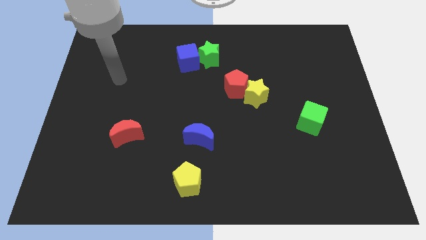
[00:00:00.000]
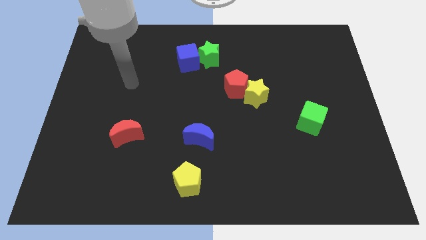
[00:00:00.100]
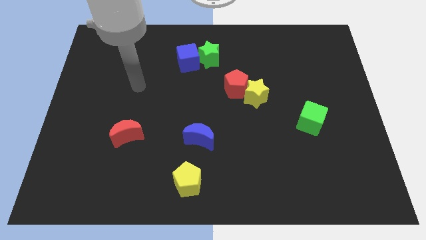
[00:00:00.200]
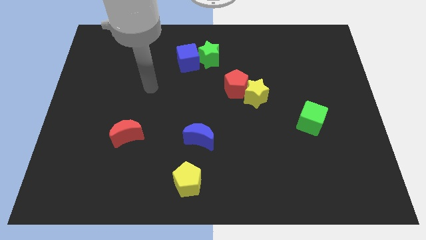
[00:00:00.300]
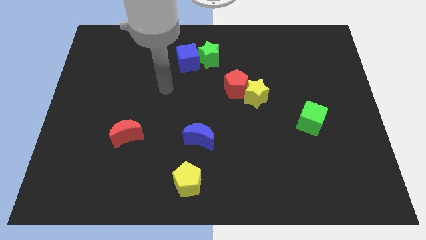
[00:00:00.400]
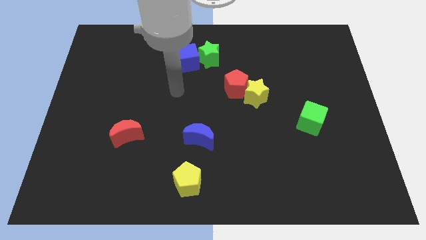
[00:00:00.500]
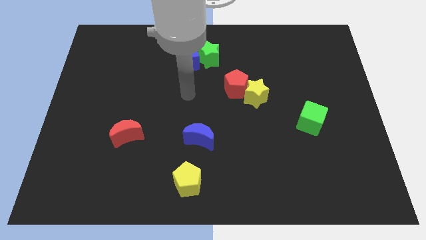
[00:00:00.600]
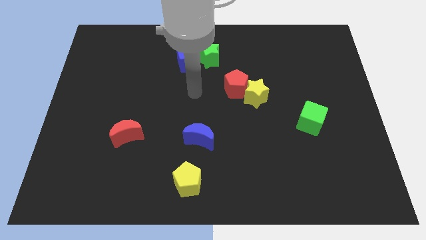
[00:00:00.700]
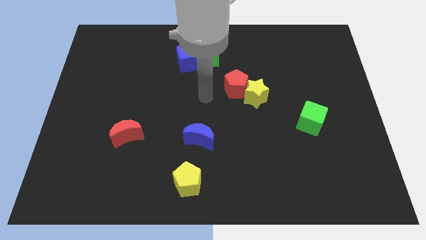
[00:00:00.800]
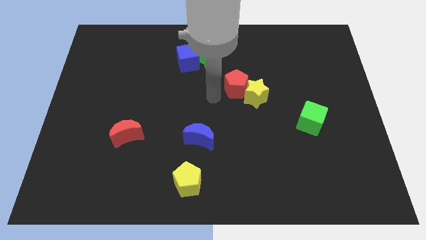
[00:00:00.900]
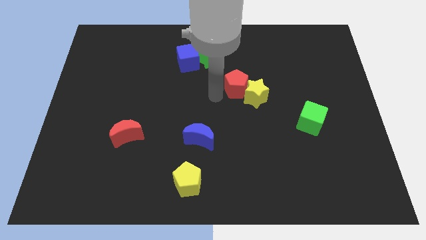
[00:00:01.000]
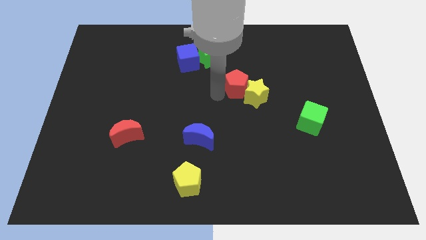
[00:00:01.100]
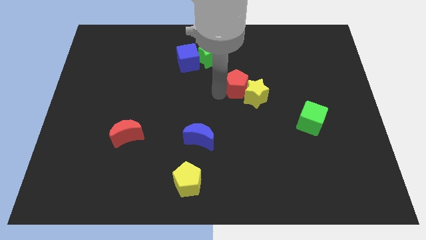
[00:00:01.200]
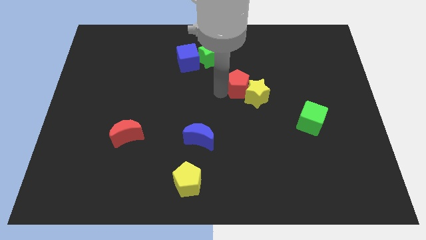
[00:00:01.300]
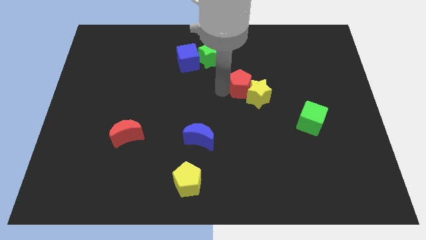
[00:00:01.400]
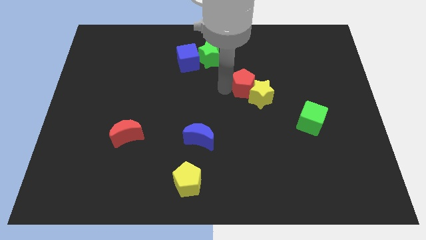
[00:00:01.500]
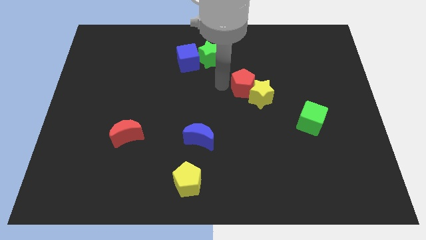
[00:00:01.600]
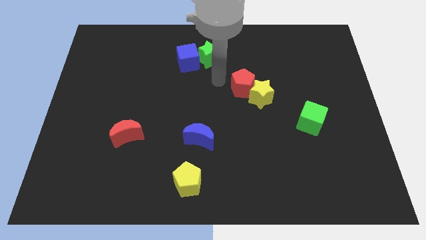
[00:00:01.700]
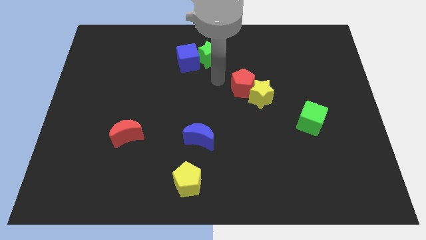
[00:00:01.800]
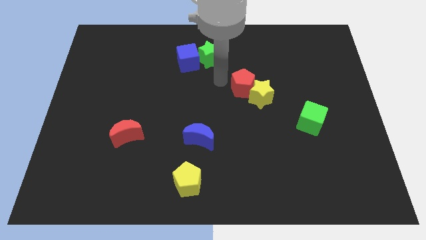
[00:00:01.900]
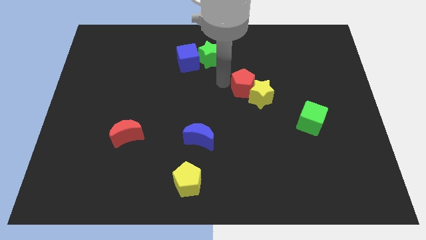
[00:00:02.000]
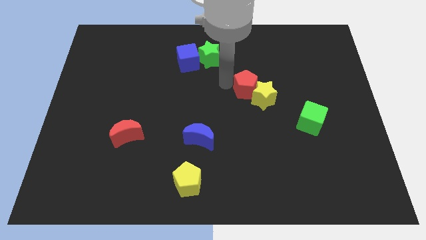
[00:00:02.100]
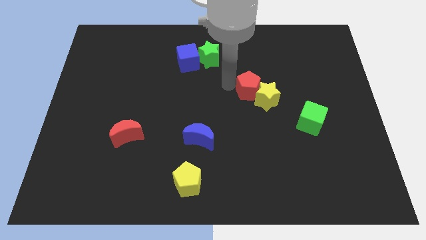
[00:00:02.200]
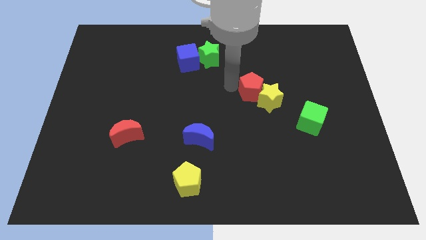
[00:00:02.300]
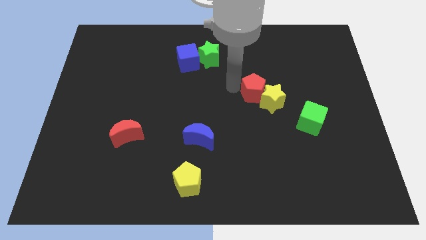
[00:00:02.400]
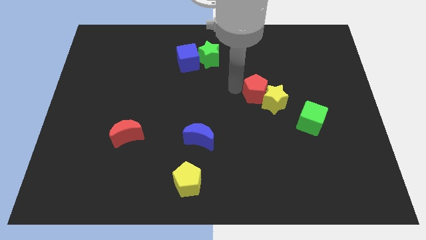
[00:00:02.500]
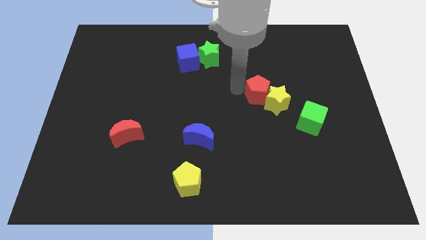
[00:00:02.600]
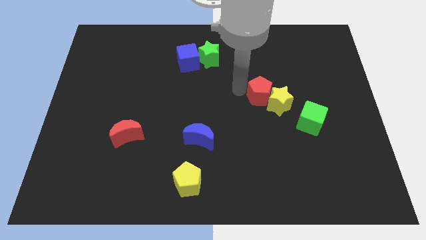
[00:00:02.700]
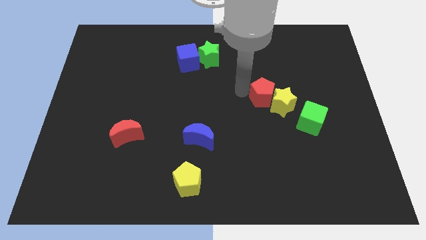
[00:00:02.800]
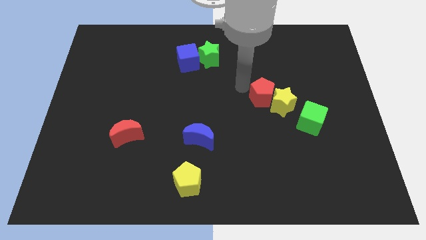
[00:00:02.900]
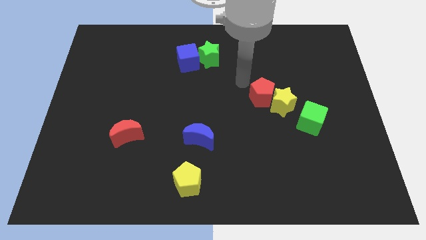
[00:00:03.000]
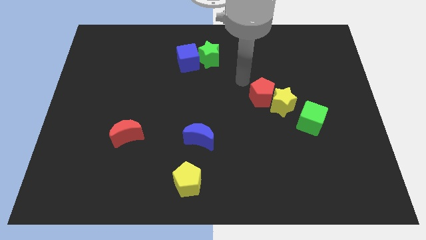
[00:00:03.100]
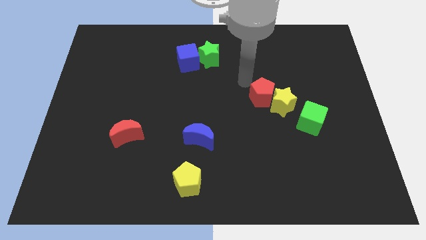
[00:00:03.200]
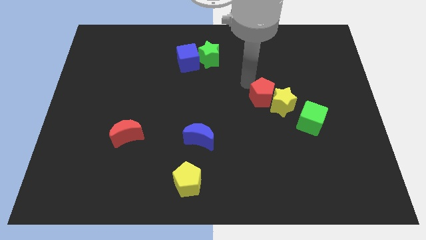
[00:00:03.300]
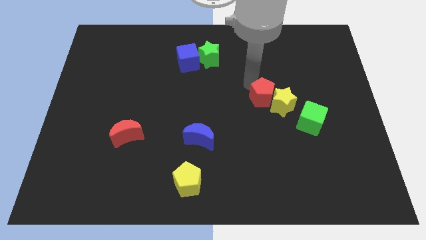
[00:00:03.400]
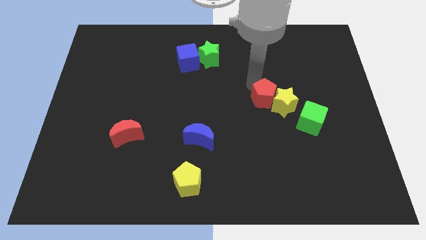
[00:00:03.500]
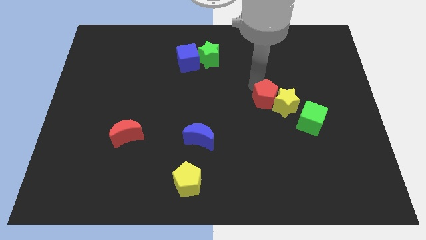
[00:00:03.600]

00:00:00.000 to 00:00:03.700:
slightly push the red pentagon diagonally downwards and right

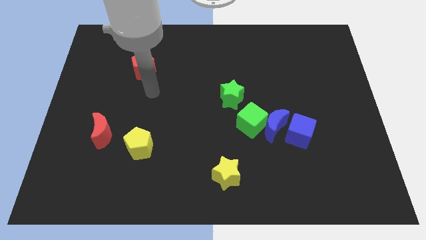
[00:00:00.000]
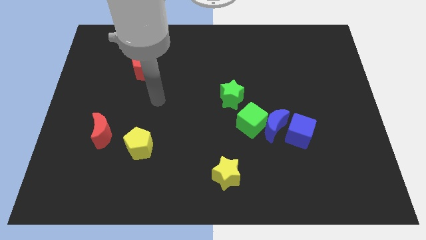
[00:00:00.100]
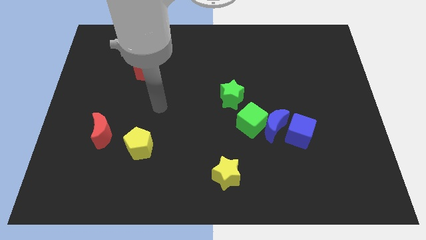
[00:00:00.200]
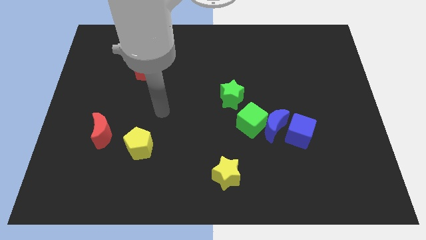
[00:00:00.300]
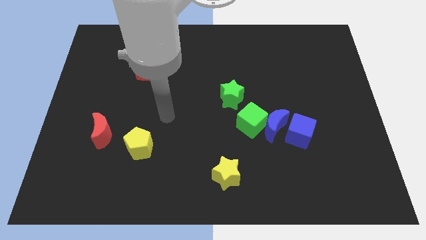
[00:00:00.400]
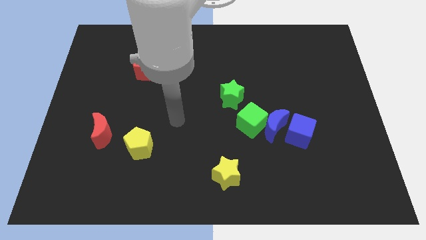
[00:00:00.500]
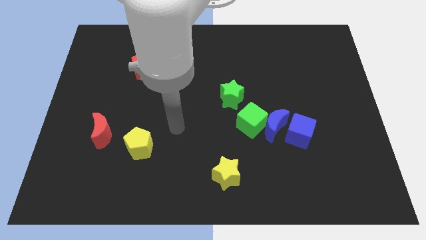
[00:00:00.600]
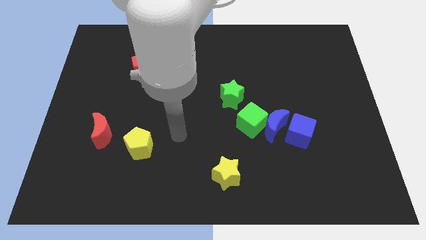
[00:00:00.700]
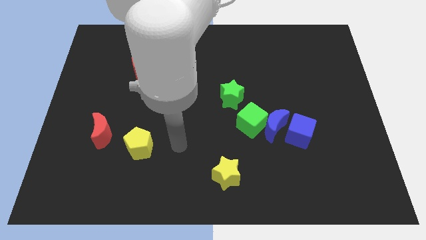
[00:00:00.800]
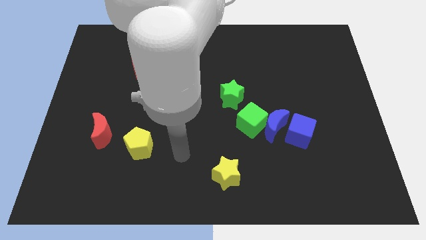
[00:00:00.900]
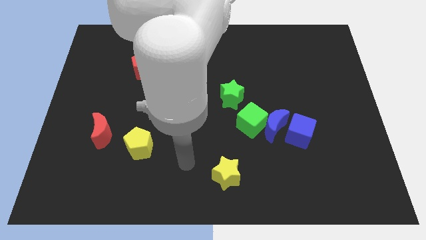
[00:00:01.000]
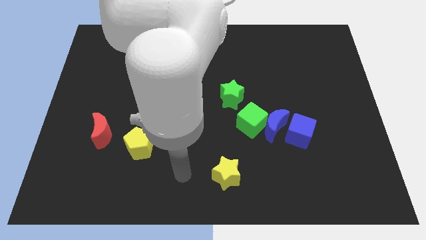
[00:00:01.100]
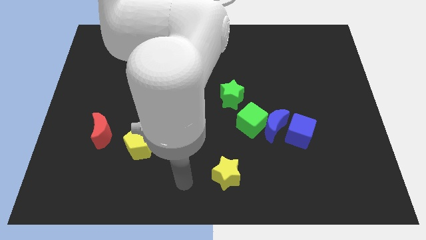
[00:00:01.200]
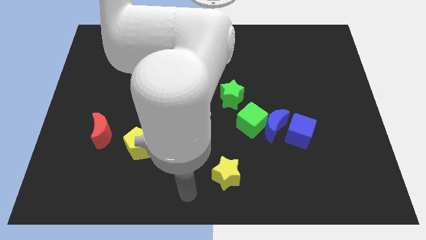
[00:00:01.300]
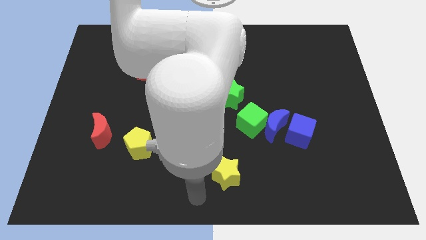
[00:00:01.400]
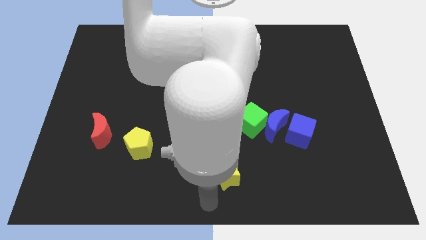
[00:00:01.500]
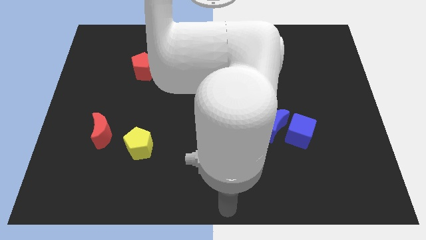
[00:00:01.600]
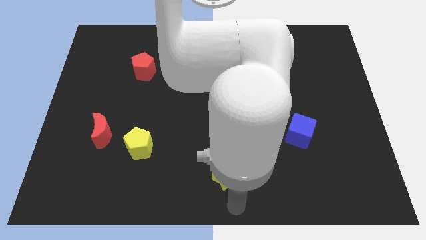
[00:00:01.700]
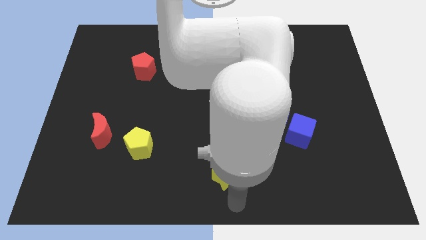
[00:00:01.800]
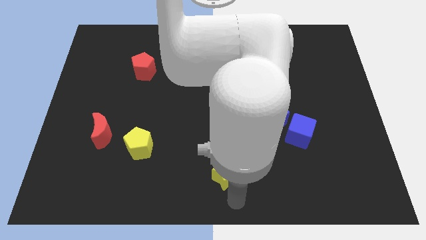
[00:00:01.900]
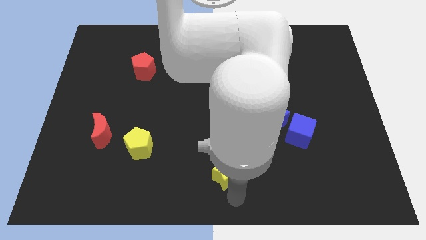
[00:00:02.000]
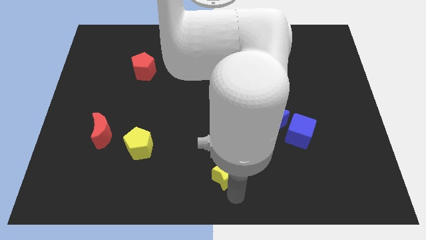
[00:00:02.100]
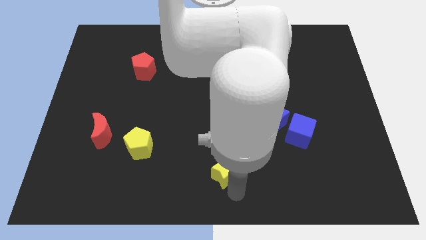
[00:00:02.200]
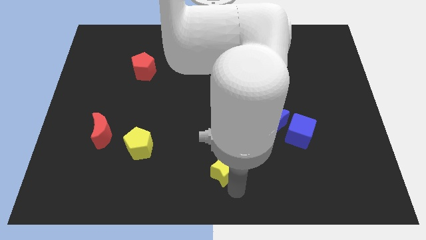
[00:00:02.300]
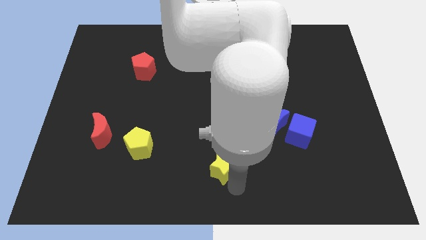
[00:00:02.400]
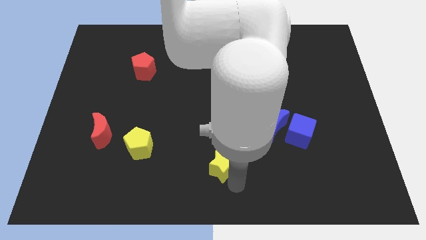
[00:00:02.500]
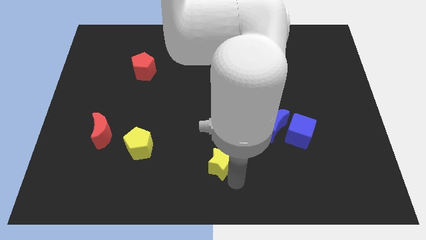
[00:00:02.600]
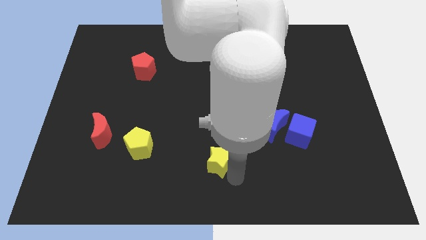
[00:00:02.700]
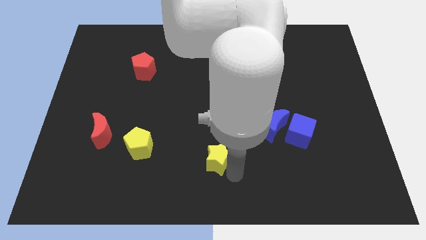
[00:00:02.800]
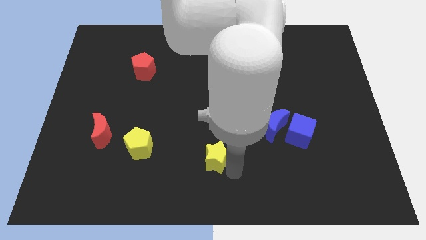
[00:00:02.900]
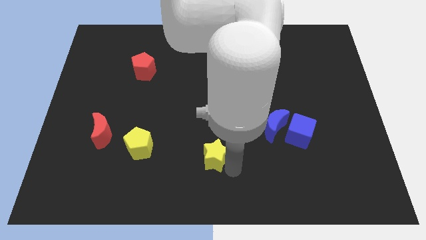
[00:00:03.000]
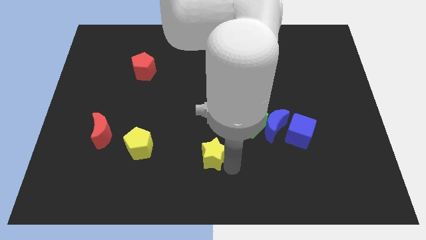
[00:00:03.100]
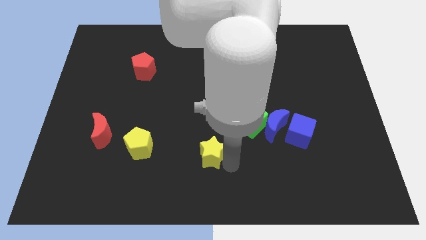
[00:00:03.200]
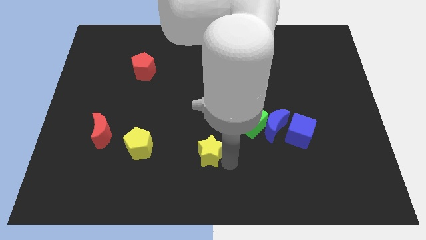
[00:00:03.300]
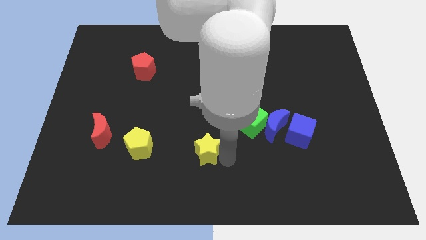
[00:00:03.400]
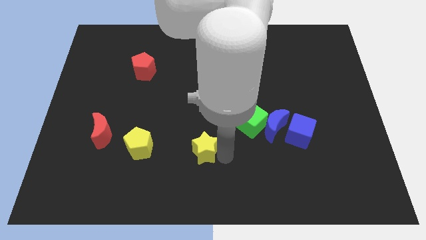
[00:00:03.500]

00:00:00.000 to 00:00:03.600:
slide the yellow star somewhat up and to the left diagonally

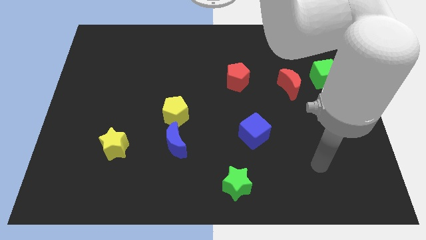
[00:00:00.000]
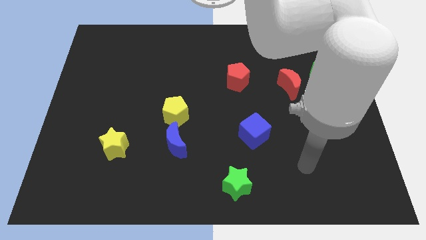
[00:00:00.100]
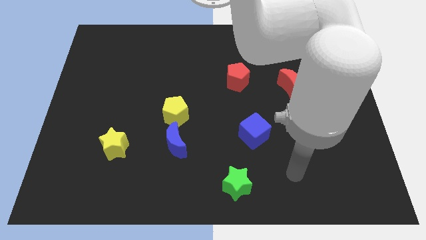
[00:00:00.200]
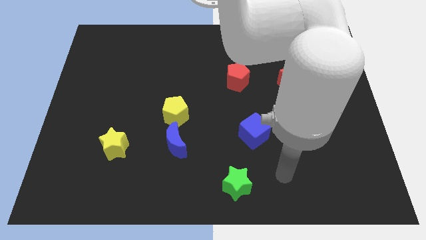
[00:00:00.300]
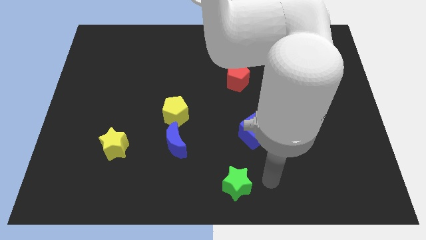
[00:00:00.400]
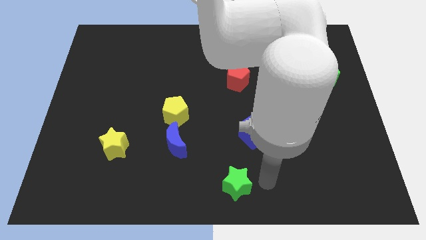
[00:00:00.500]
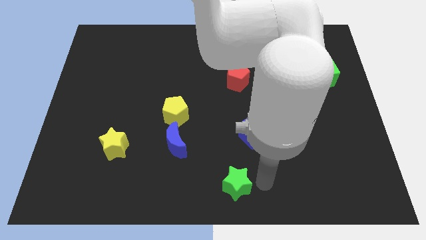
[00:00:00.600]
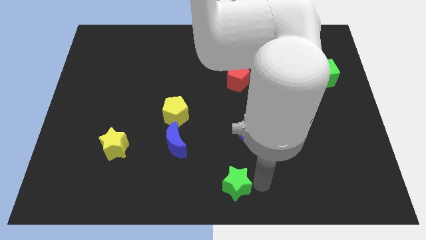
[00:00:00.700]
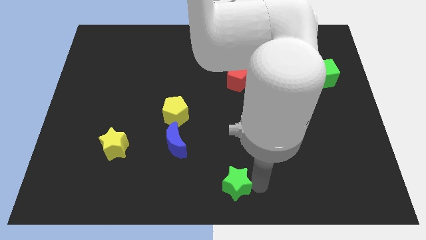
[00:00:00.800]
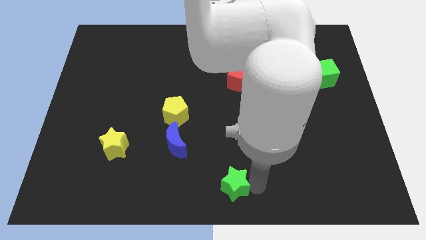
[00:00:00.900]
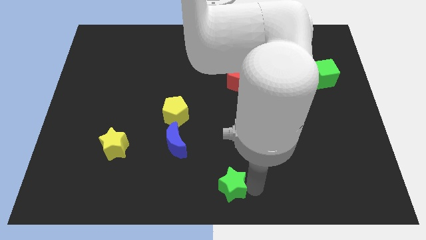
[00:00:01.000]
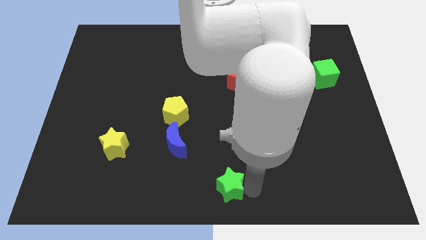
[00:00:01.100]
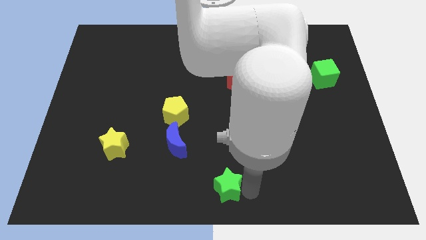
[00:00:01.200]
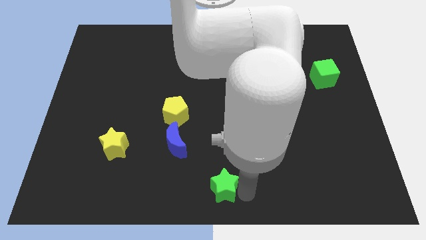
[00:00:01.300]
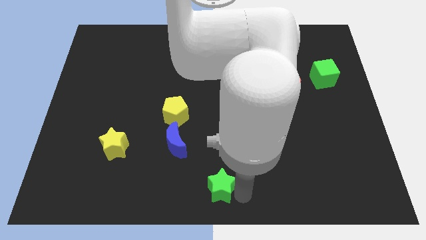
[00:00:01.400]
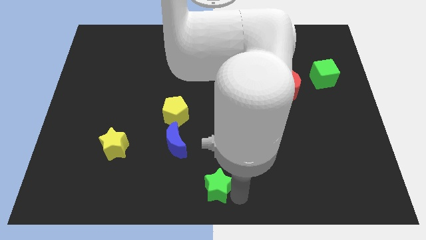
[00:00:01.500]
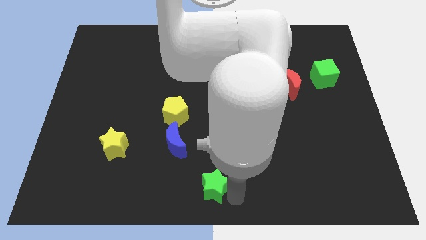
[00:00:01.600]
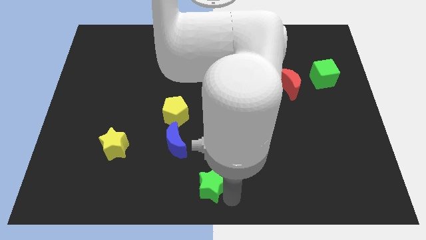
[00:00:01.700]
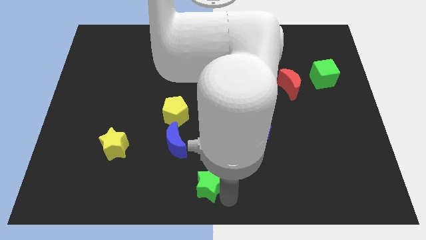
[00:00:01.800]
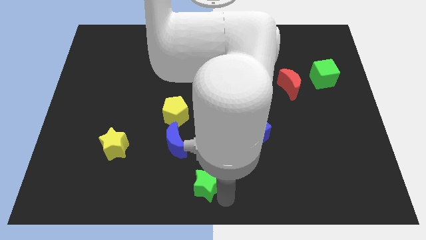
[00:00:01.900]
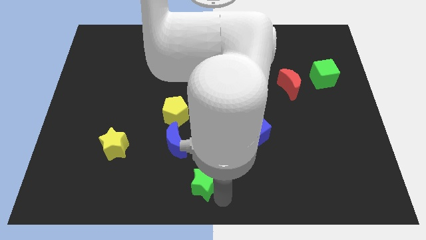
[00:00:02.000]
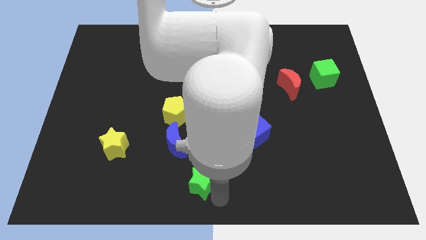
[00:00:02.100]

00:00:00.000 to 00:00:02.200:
move the green star a little bit to the left
